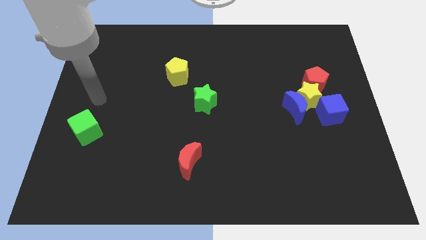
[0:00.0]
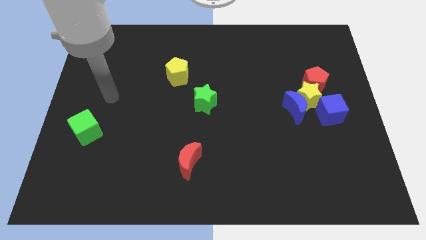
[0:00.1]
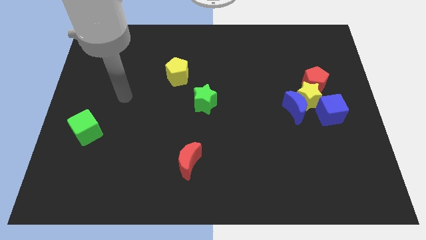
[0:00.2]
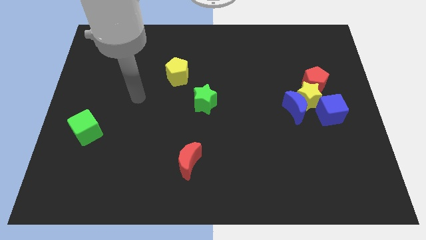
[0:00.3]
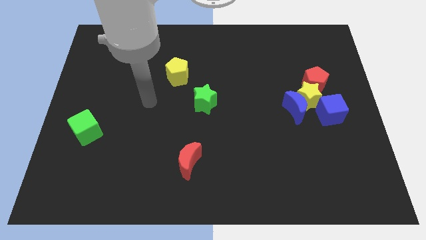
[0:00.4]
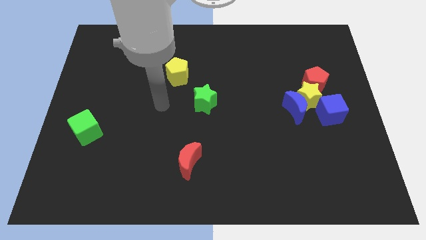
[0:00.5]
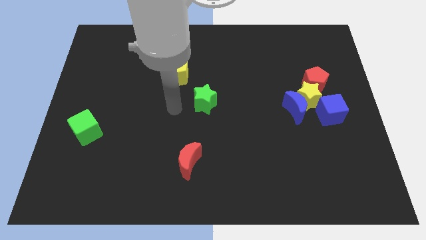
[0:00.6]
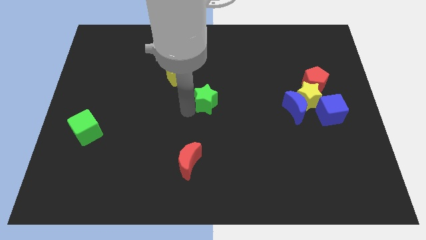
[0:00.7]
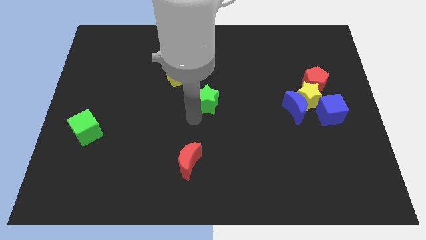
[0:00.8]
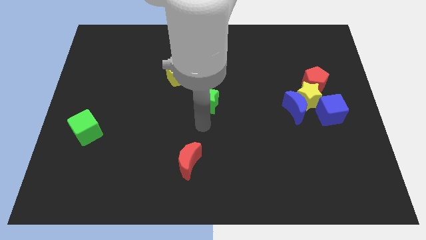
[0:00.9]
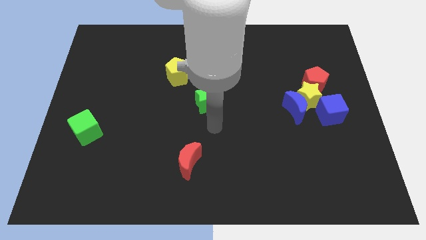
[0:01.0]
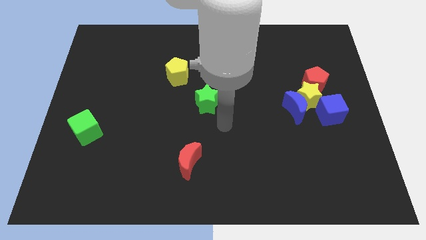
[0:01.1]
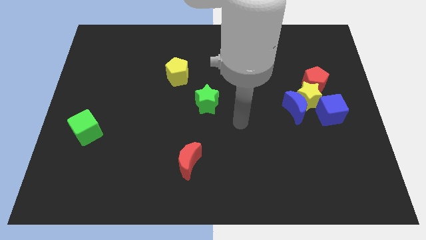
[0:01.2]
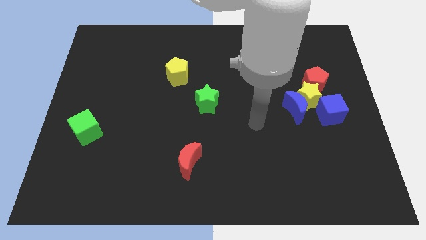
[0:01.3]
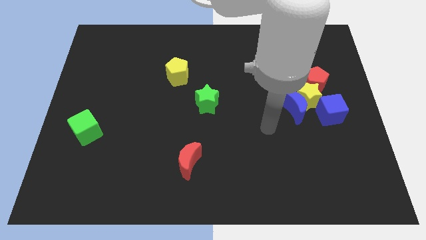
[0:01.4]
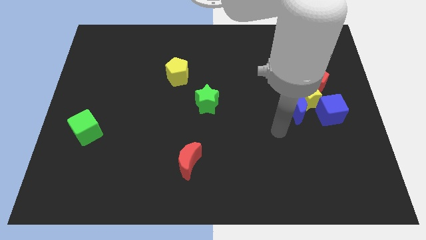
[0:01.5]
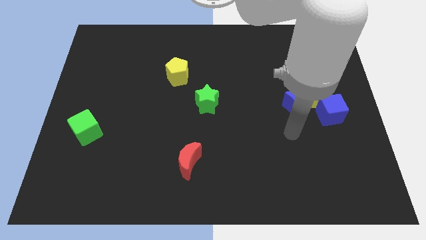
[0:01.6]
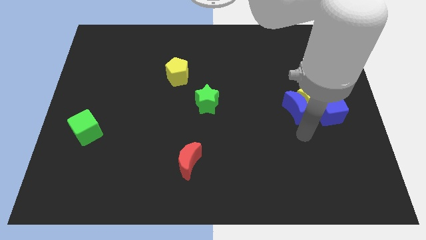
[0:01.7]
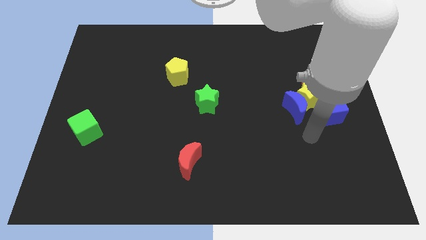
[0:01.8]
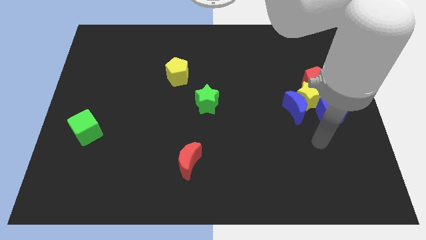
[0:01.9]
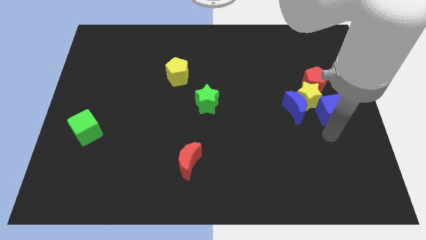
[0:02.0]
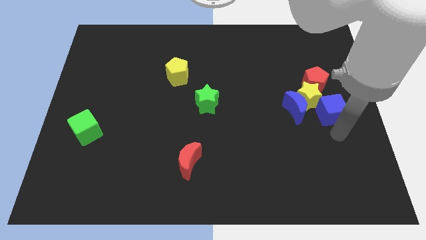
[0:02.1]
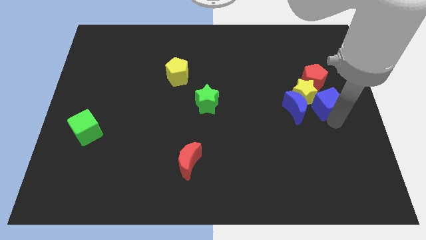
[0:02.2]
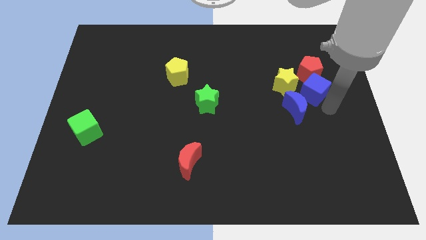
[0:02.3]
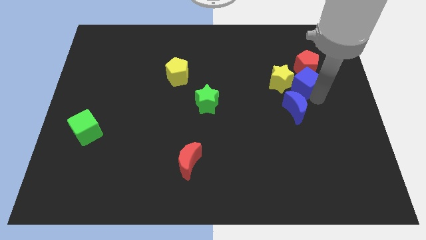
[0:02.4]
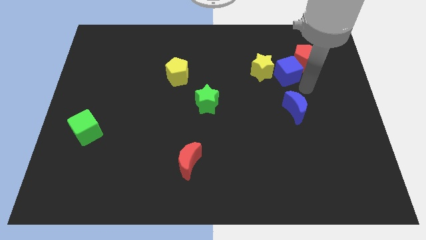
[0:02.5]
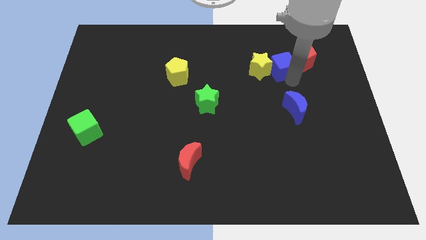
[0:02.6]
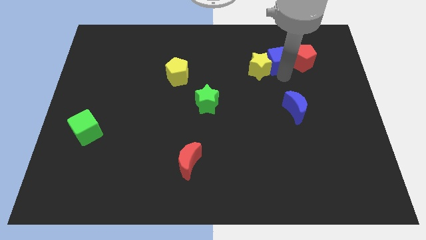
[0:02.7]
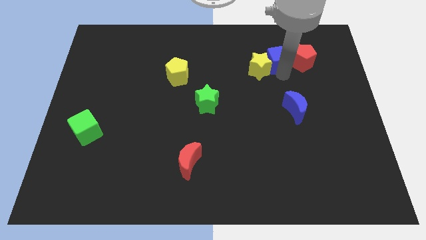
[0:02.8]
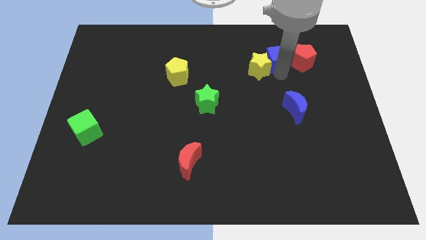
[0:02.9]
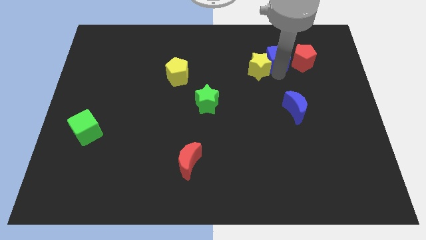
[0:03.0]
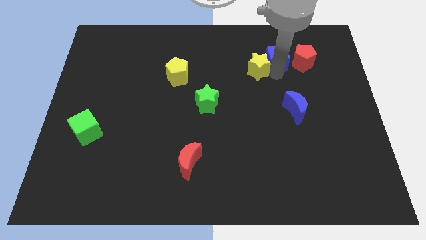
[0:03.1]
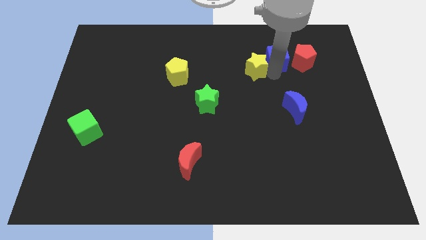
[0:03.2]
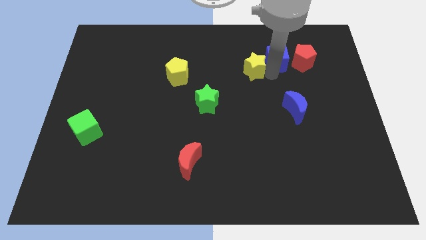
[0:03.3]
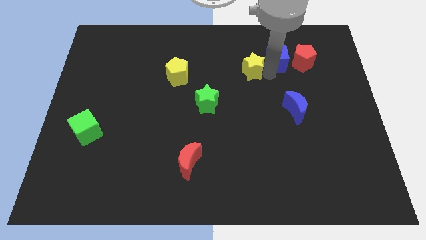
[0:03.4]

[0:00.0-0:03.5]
move the yellow star away from the blue moon, red pentagon, and blue cube

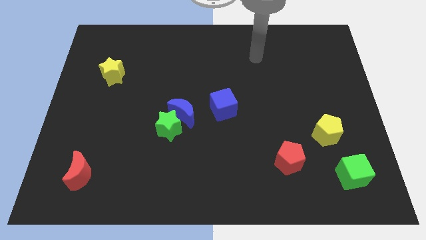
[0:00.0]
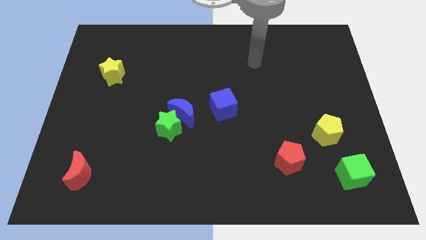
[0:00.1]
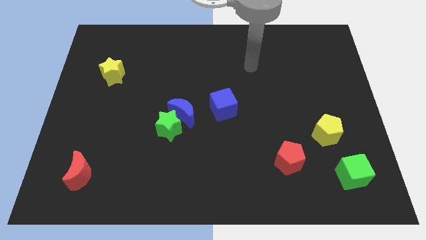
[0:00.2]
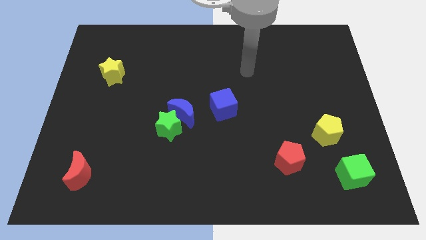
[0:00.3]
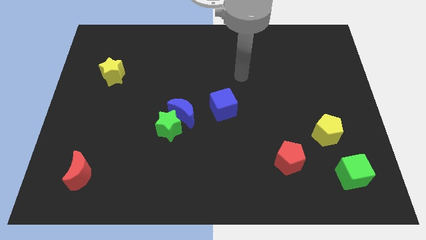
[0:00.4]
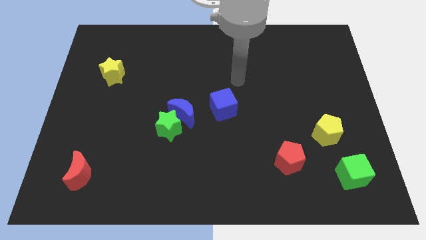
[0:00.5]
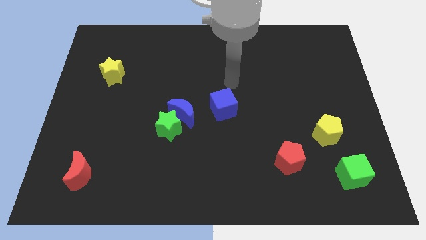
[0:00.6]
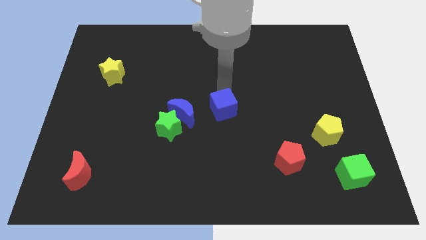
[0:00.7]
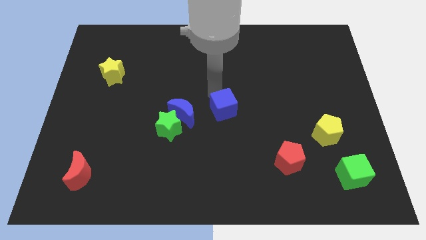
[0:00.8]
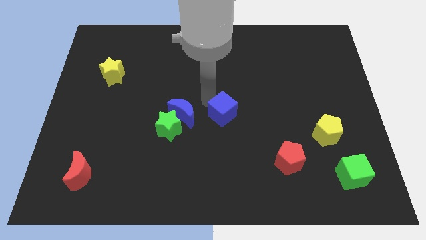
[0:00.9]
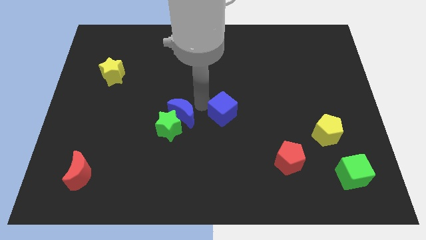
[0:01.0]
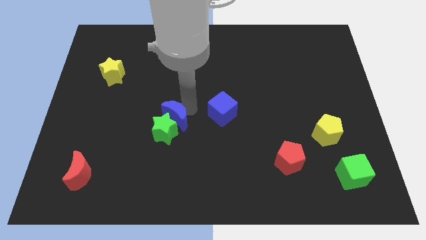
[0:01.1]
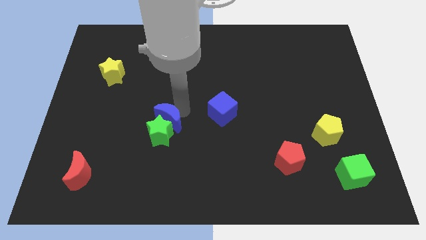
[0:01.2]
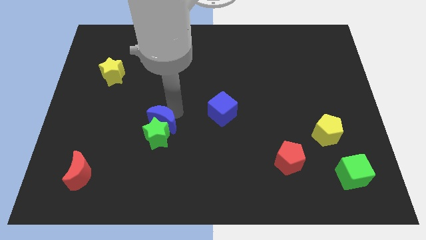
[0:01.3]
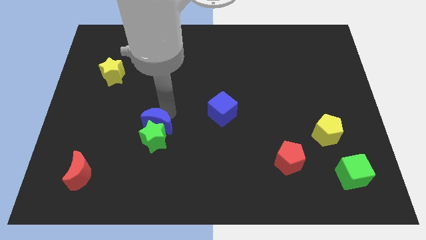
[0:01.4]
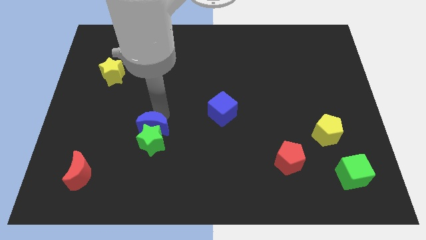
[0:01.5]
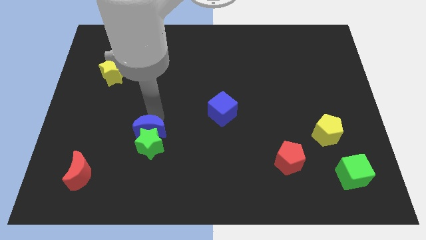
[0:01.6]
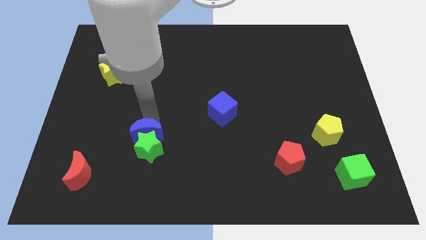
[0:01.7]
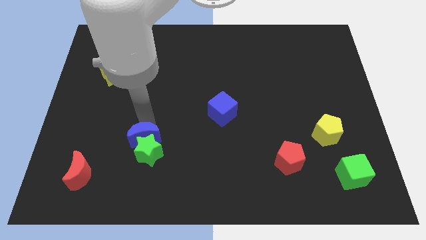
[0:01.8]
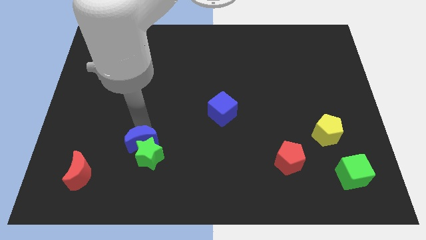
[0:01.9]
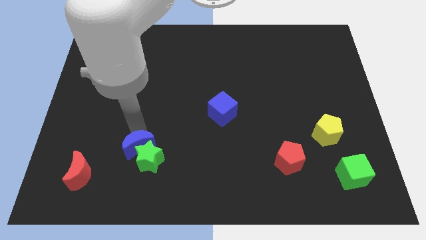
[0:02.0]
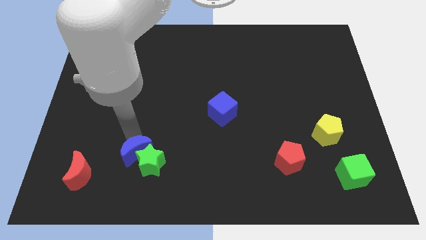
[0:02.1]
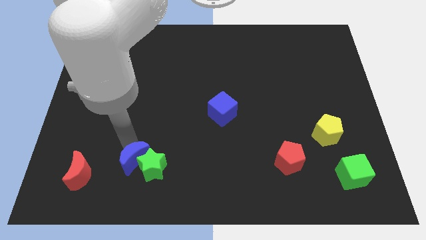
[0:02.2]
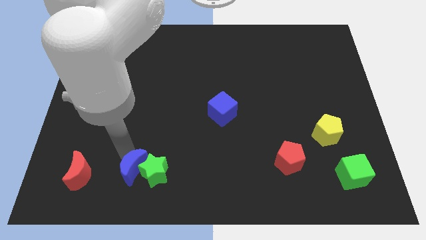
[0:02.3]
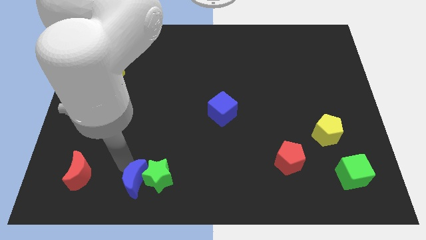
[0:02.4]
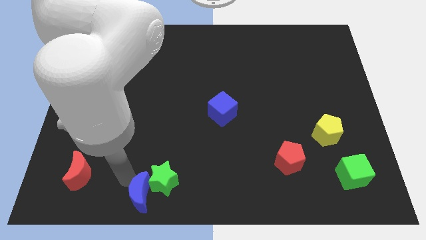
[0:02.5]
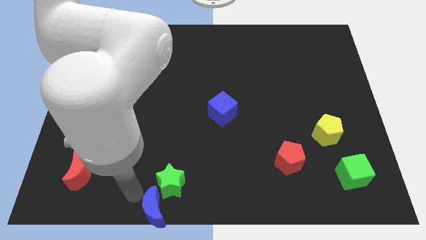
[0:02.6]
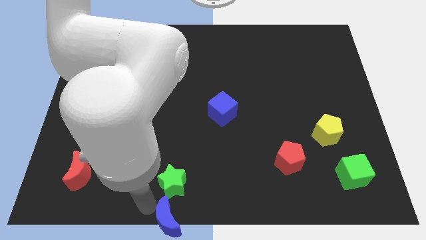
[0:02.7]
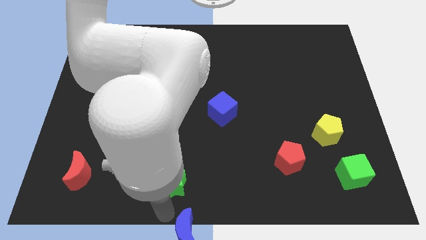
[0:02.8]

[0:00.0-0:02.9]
pull the green star apart from the blue moon

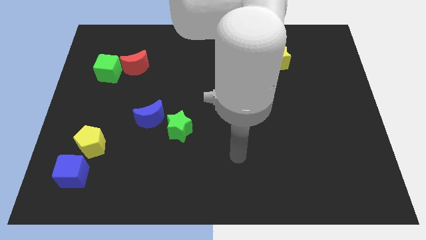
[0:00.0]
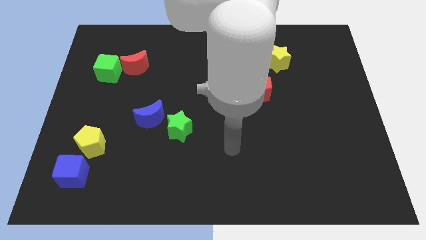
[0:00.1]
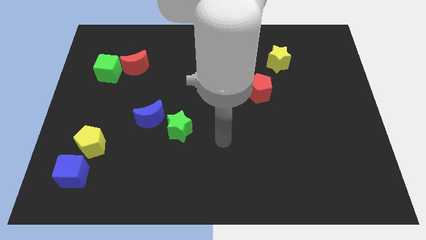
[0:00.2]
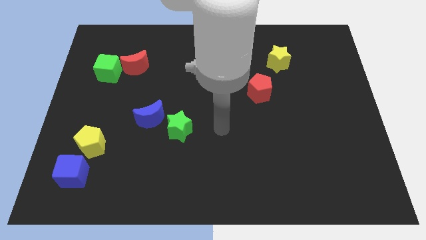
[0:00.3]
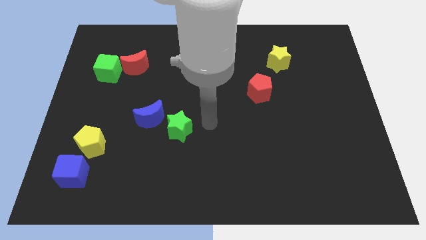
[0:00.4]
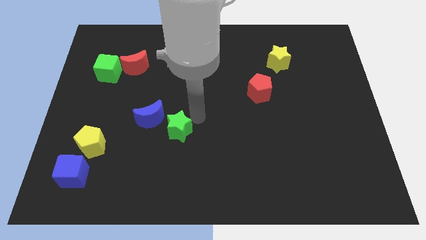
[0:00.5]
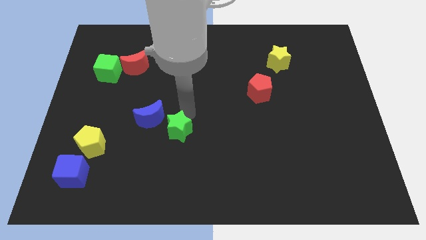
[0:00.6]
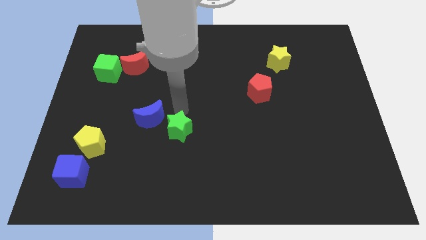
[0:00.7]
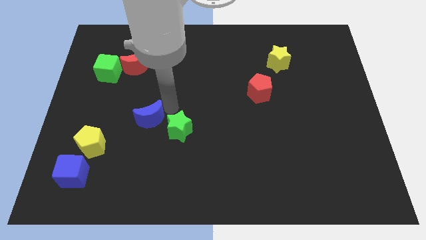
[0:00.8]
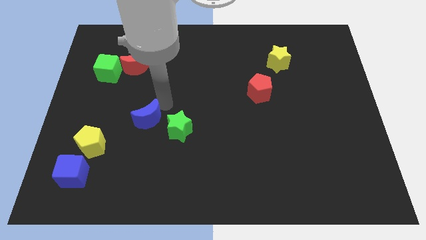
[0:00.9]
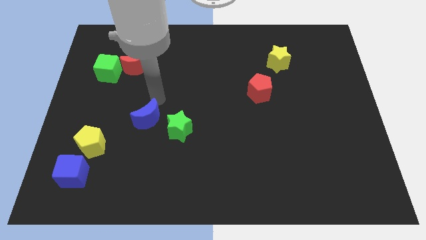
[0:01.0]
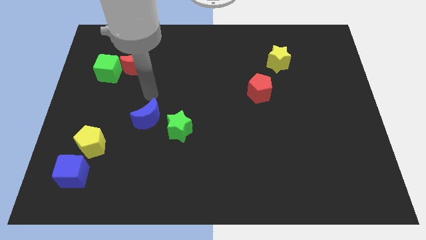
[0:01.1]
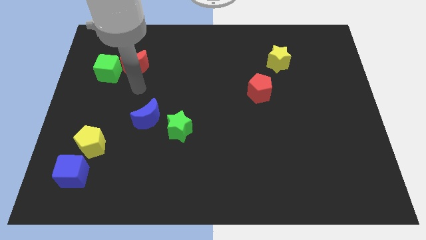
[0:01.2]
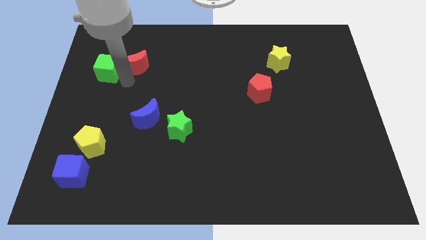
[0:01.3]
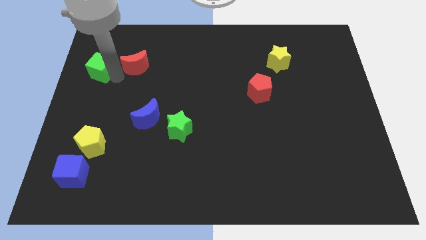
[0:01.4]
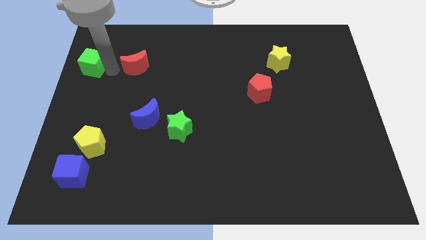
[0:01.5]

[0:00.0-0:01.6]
separate the red moon from the green cube

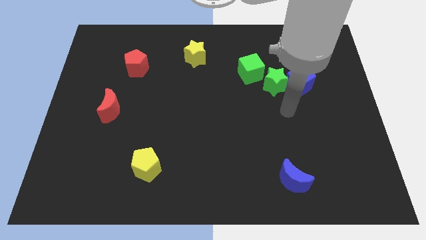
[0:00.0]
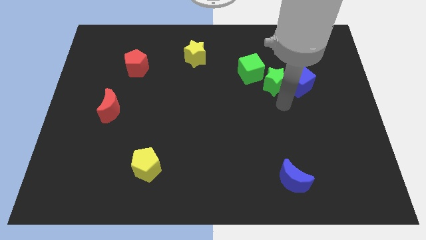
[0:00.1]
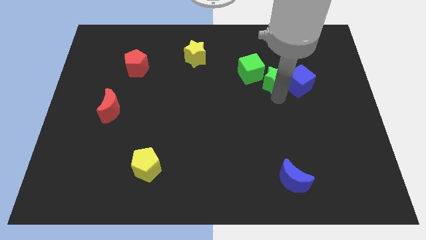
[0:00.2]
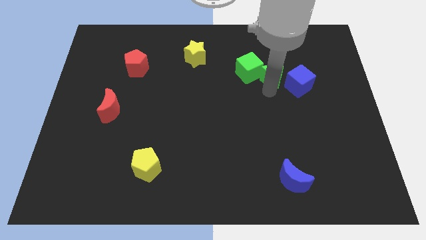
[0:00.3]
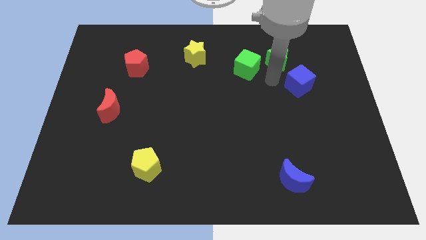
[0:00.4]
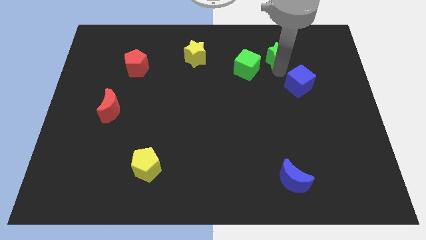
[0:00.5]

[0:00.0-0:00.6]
separate the blue cube from the green star

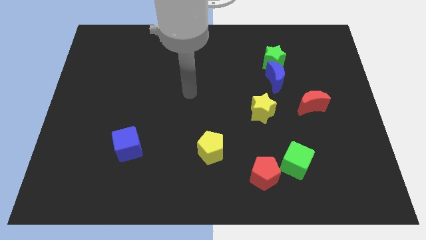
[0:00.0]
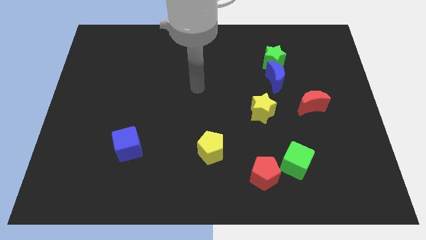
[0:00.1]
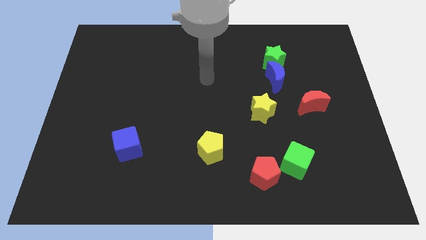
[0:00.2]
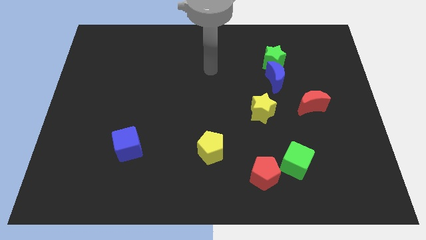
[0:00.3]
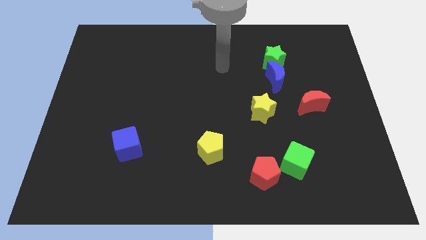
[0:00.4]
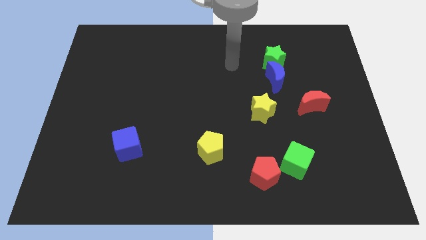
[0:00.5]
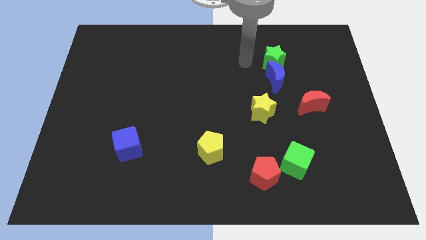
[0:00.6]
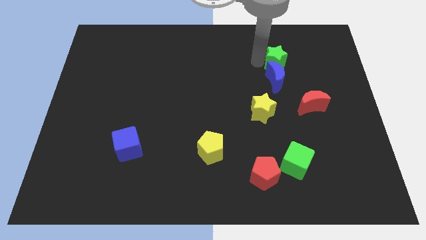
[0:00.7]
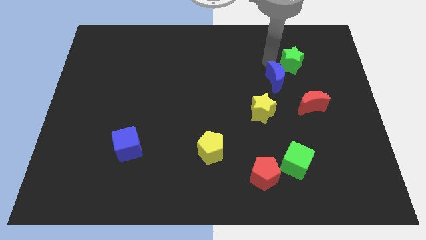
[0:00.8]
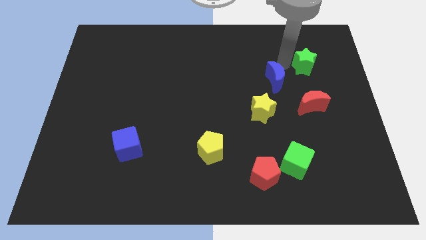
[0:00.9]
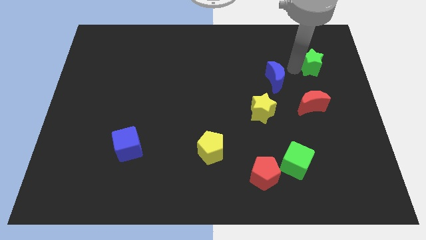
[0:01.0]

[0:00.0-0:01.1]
move the blue moon away from the green star
